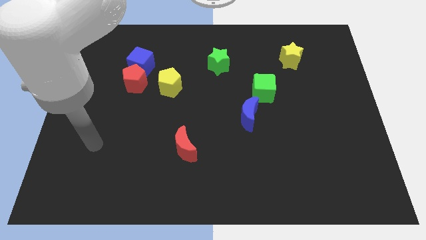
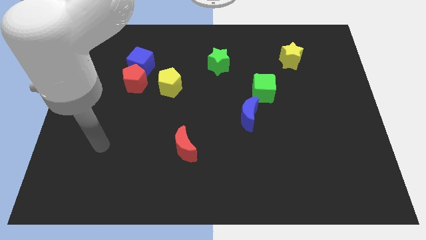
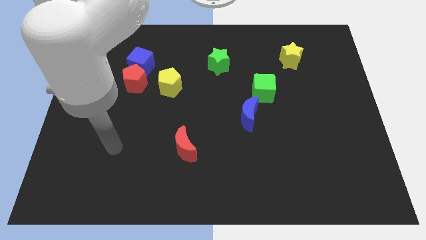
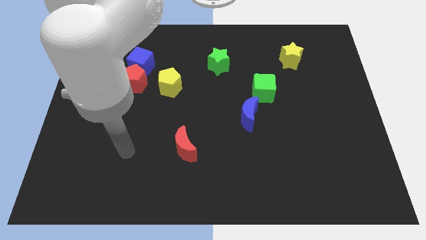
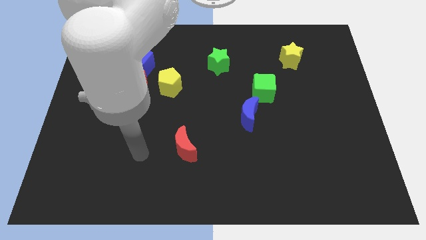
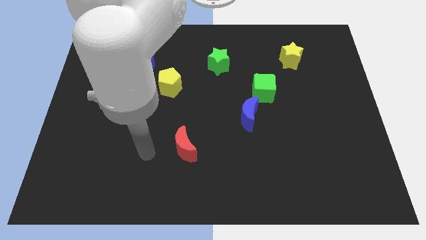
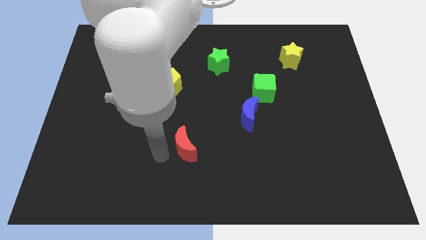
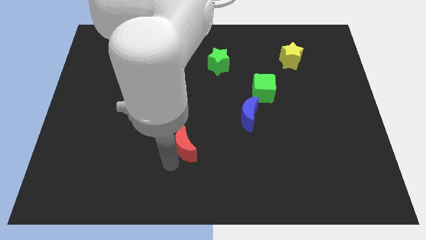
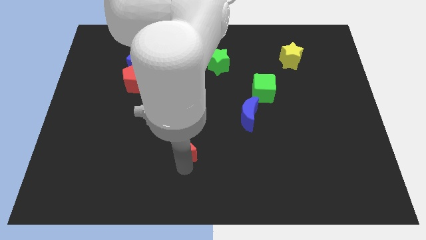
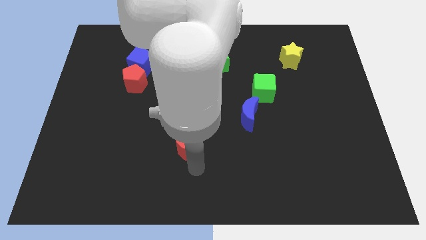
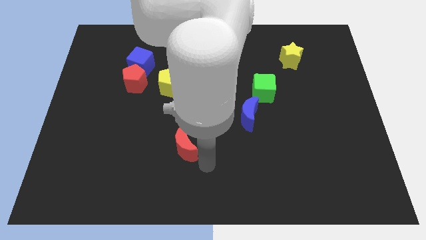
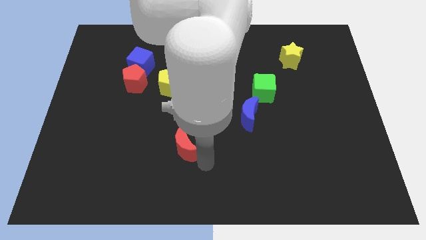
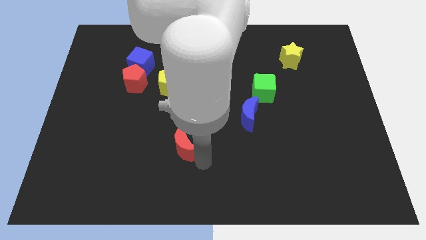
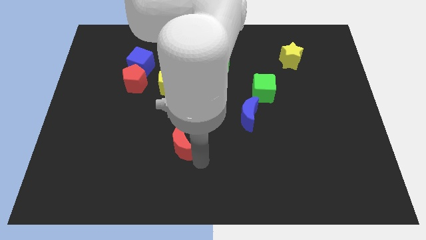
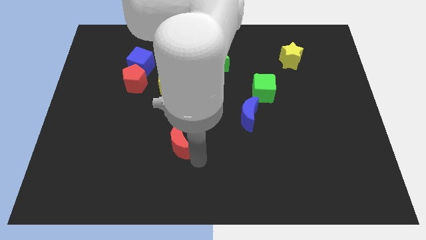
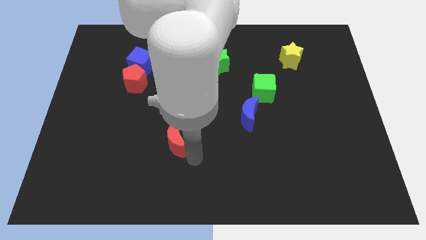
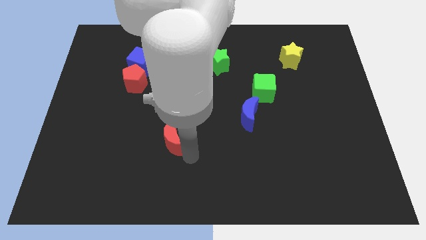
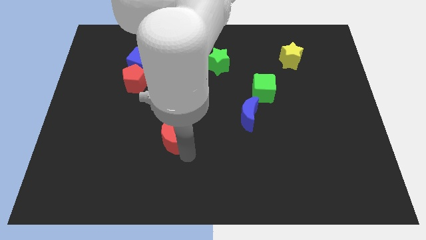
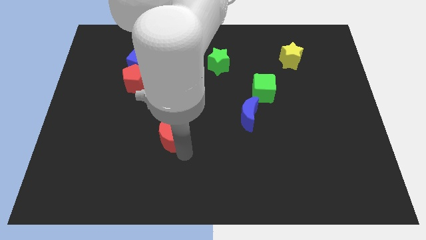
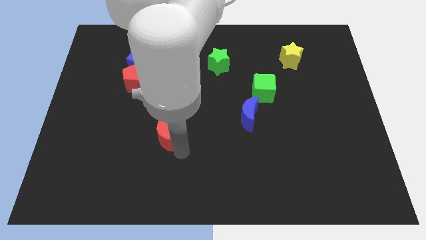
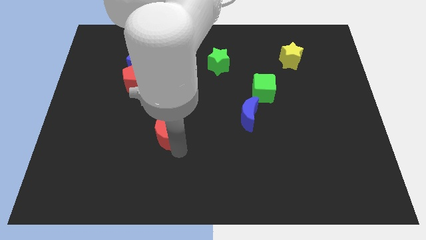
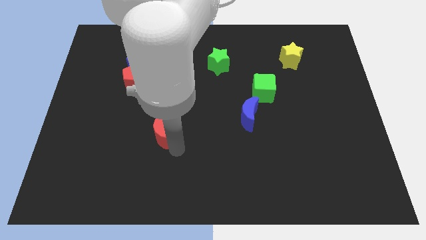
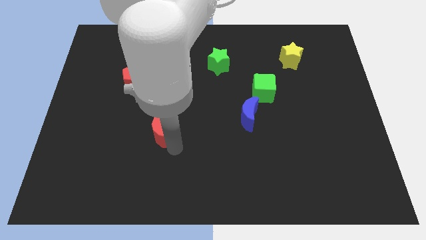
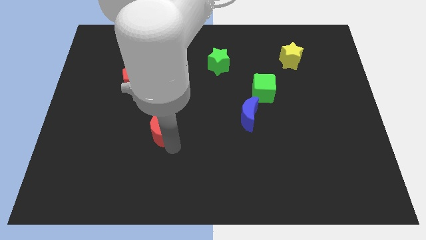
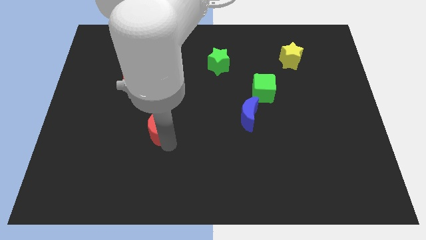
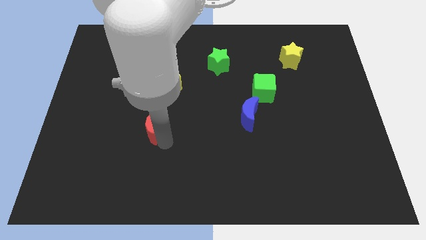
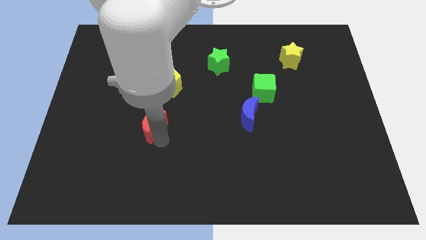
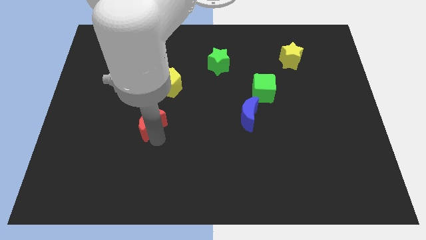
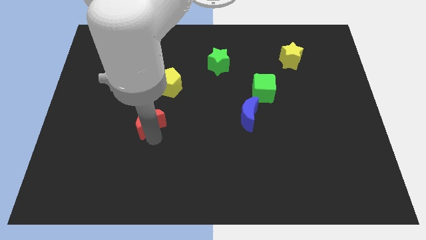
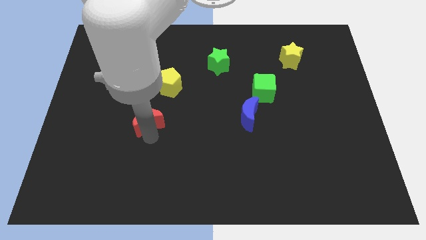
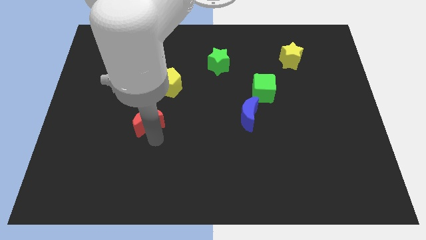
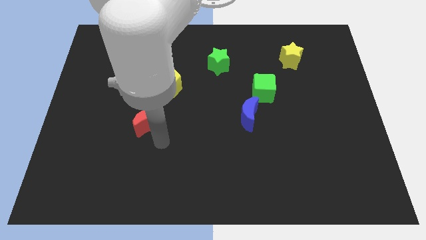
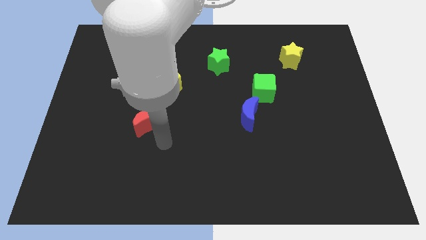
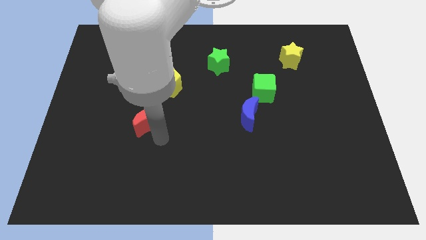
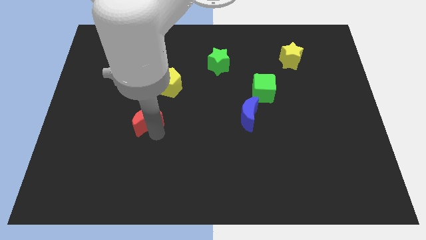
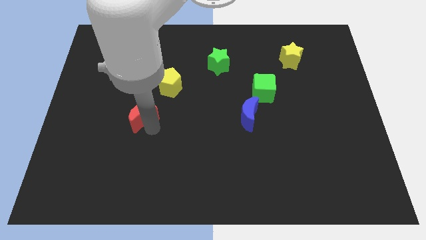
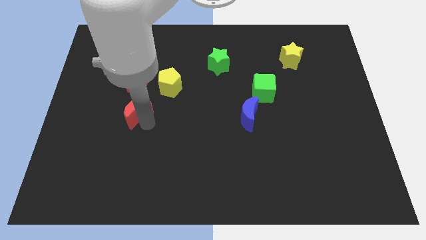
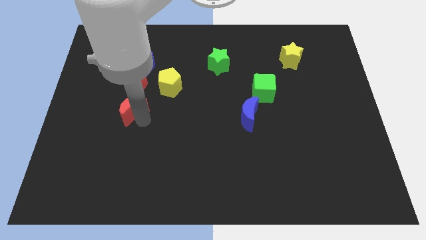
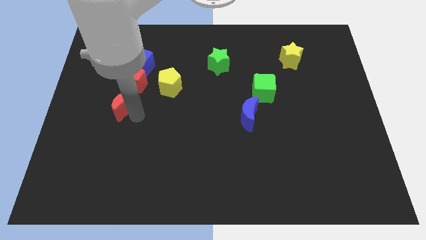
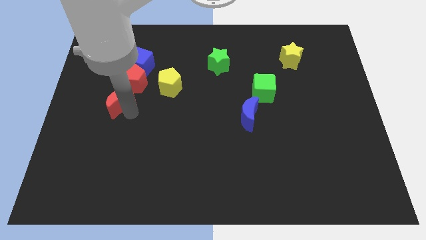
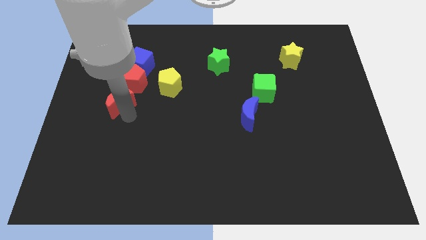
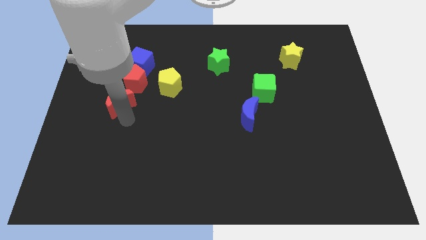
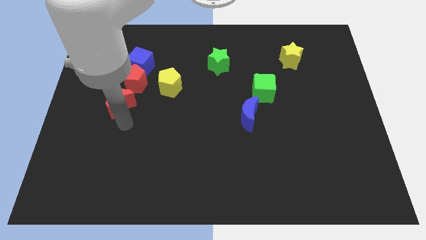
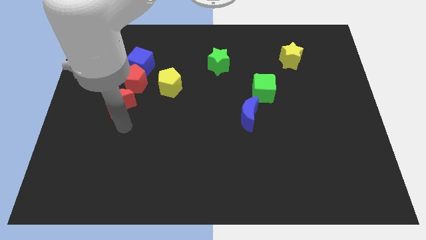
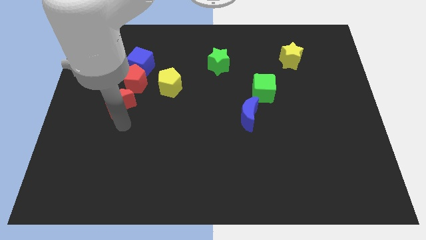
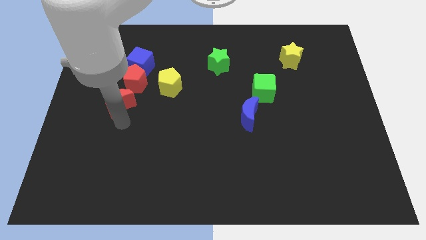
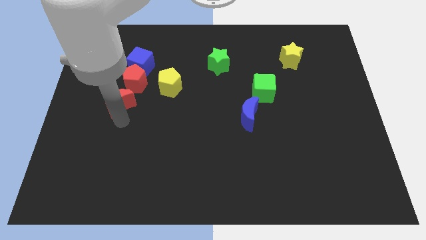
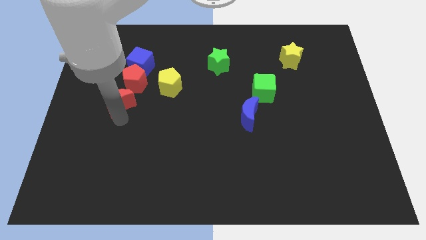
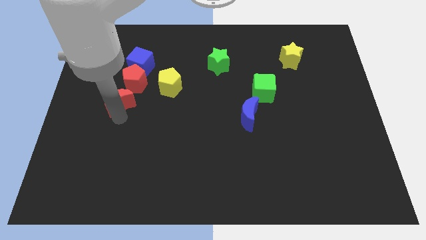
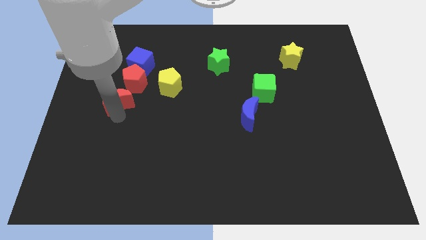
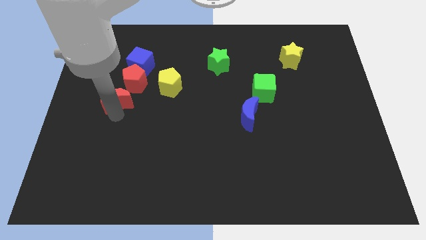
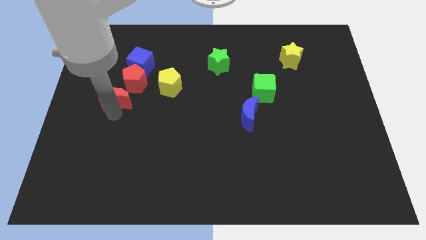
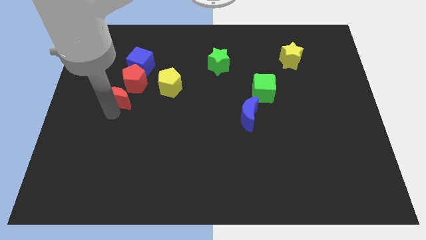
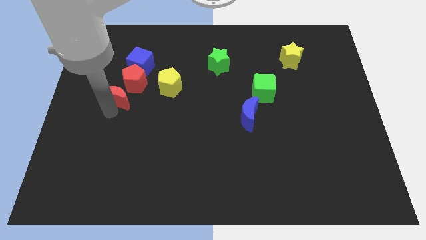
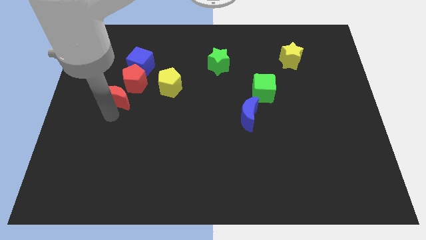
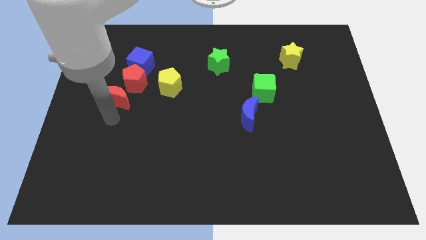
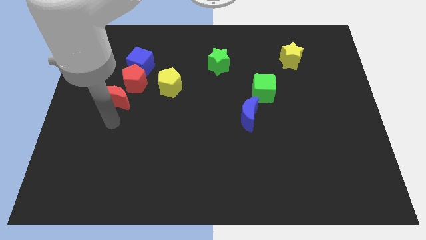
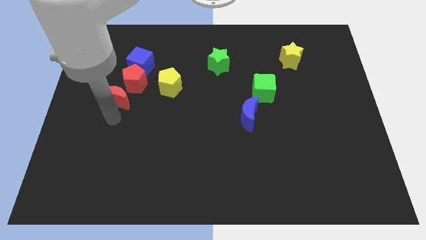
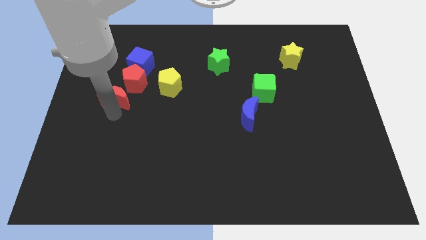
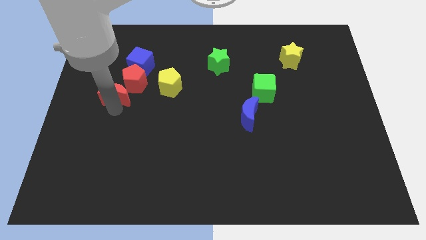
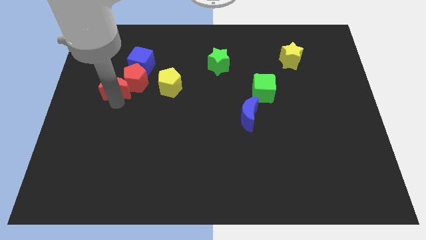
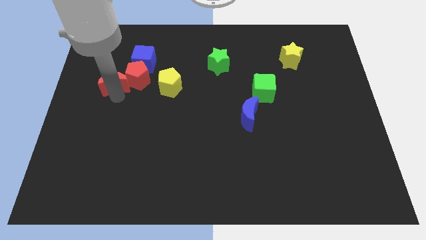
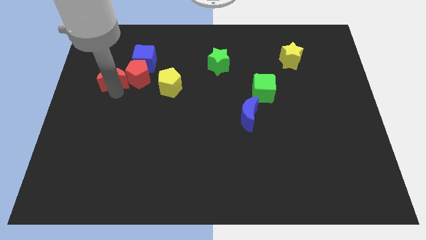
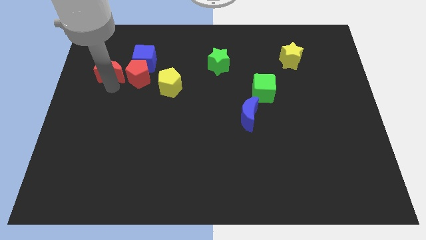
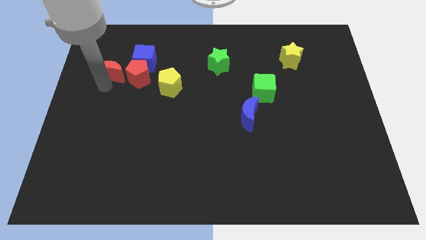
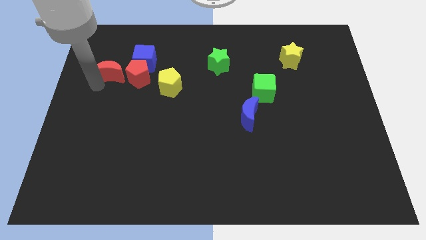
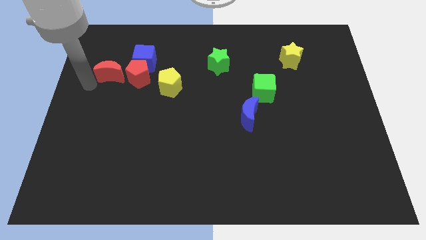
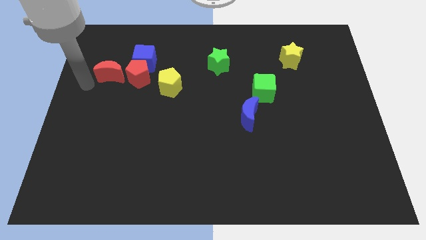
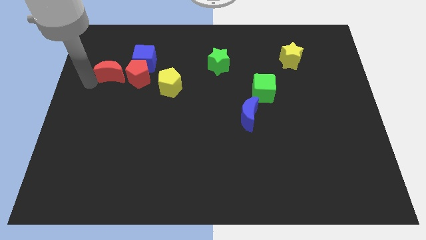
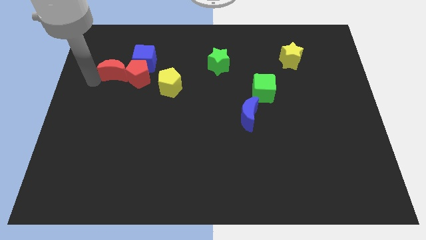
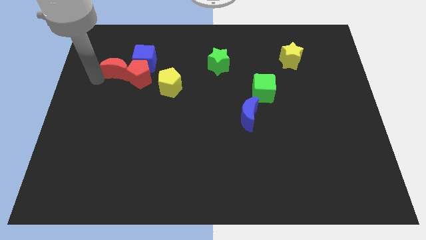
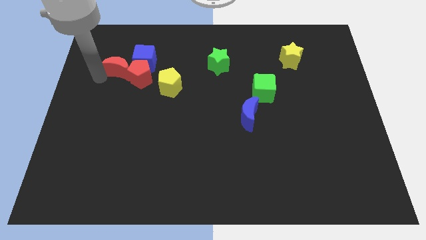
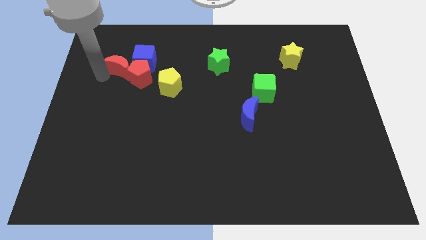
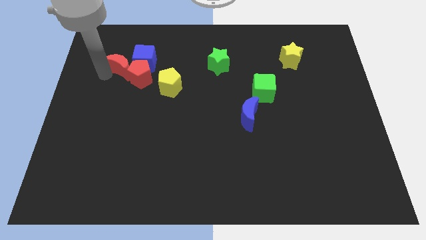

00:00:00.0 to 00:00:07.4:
push the red moon close to the blue cube
